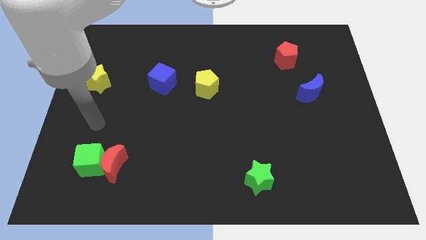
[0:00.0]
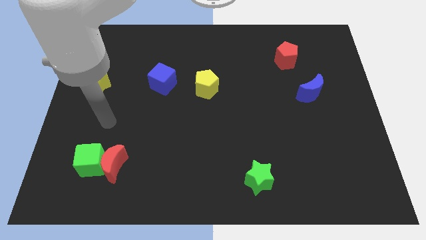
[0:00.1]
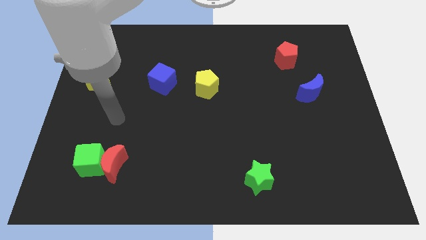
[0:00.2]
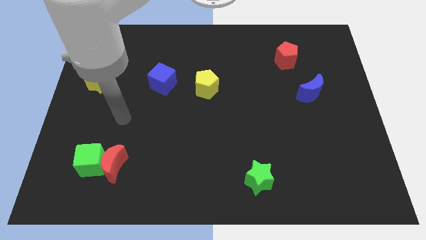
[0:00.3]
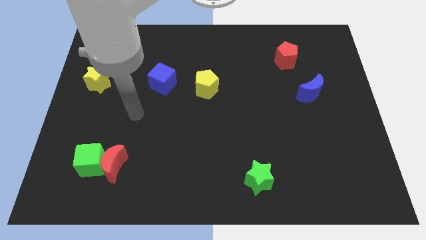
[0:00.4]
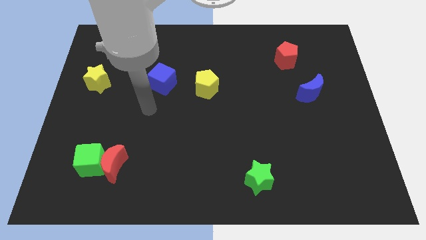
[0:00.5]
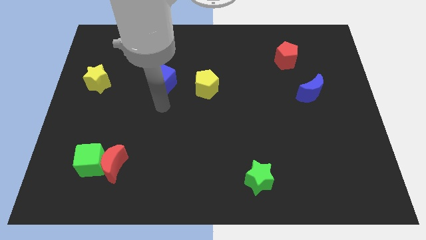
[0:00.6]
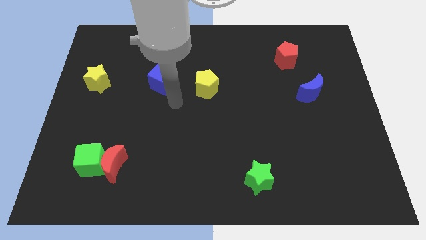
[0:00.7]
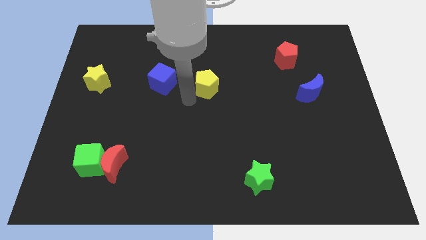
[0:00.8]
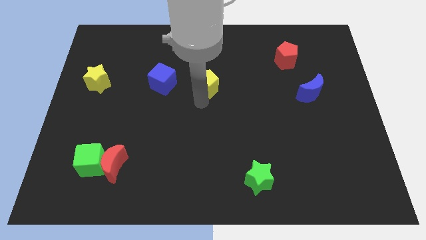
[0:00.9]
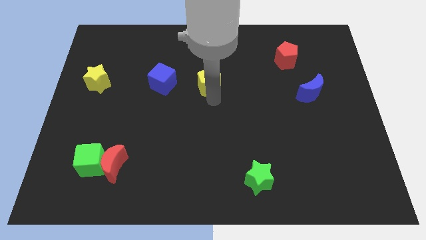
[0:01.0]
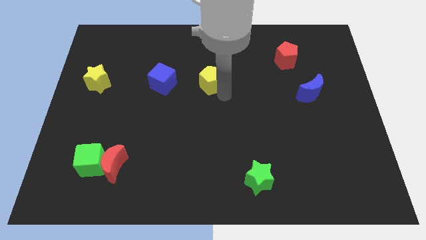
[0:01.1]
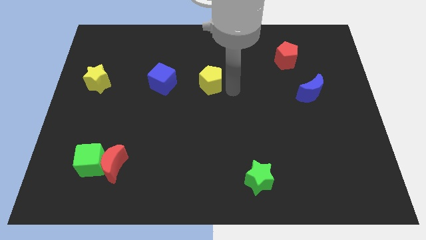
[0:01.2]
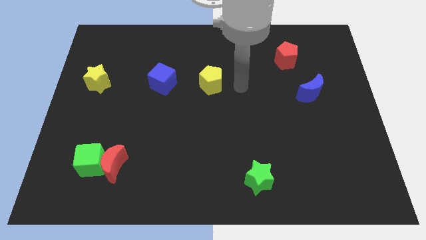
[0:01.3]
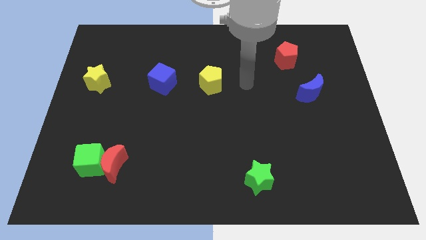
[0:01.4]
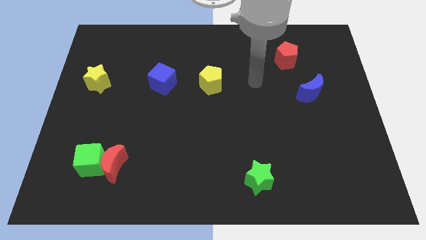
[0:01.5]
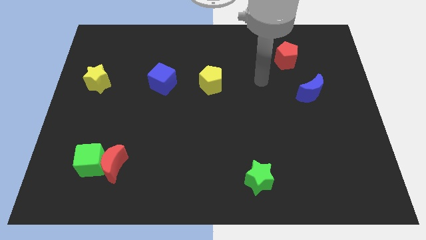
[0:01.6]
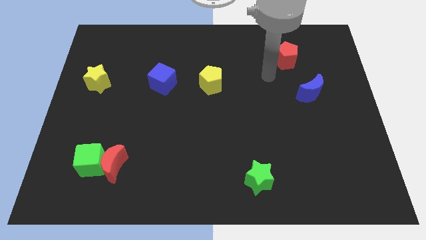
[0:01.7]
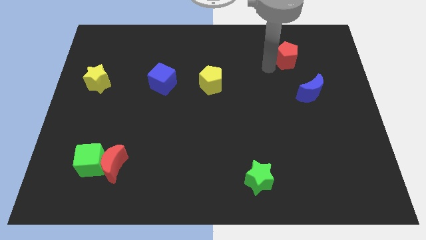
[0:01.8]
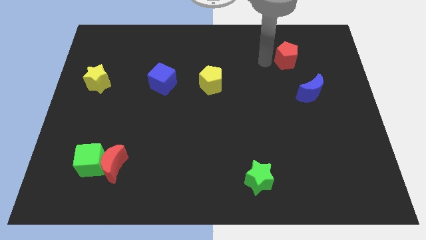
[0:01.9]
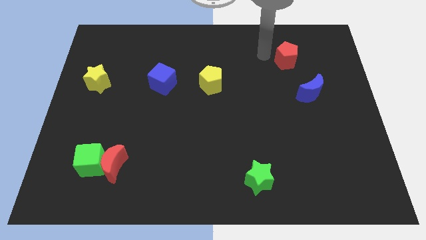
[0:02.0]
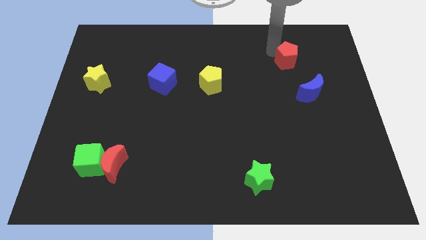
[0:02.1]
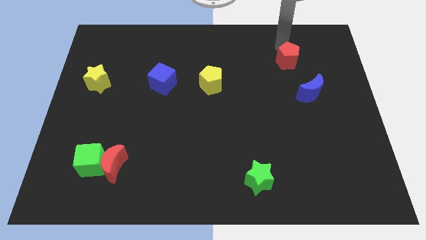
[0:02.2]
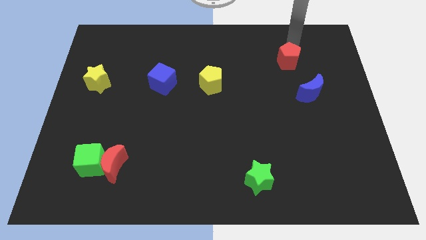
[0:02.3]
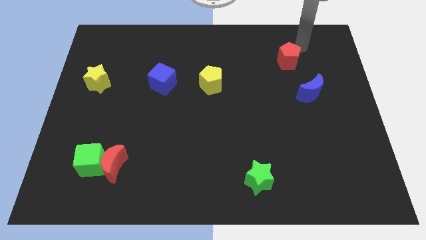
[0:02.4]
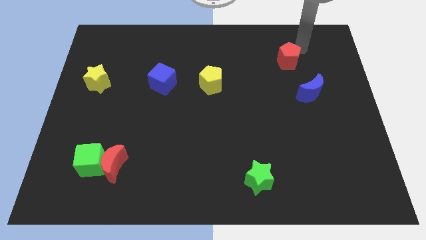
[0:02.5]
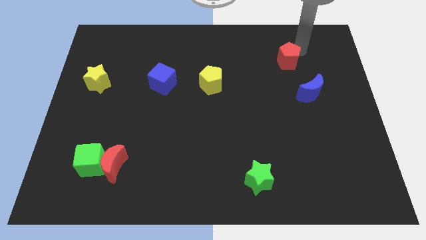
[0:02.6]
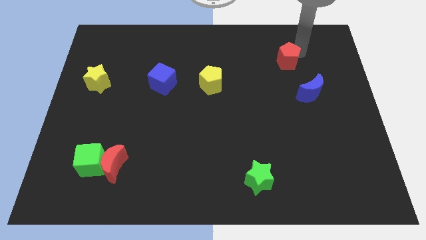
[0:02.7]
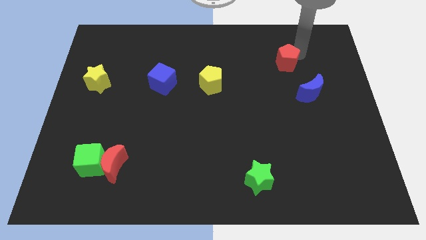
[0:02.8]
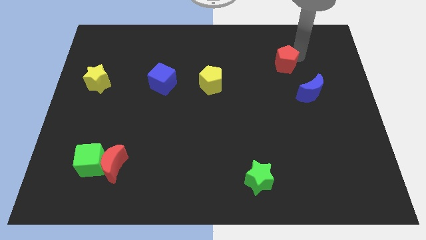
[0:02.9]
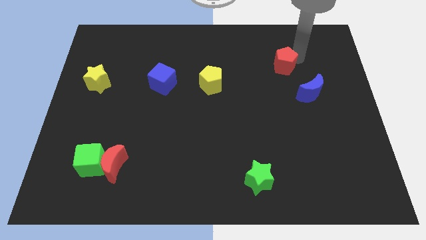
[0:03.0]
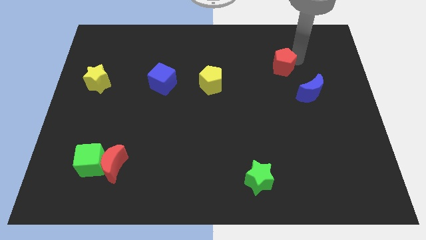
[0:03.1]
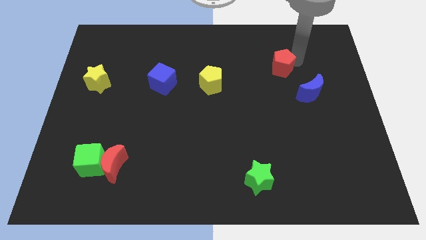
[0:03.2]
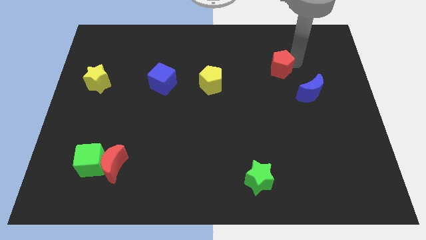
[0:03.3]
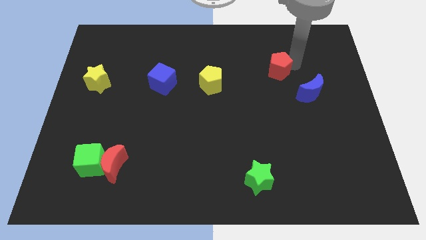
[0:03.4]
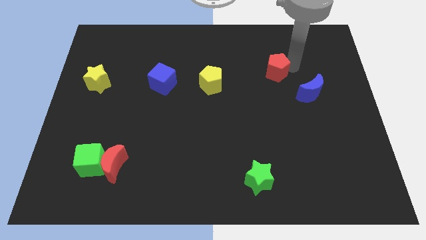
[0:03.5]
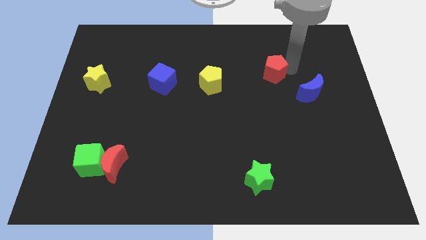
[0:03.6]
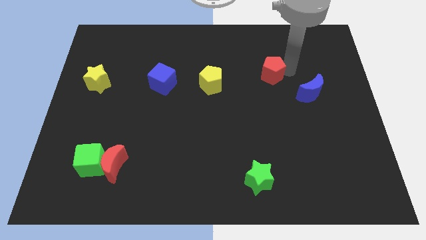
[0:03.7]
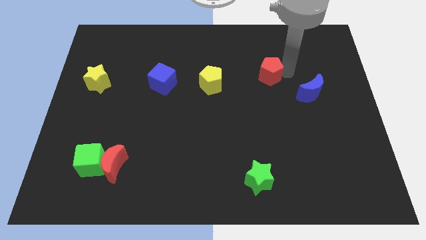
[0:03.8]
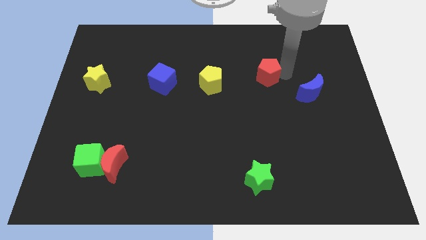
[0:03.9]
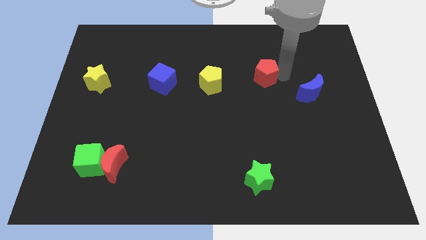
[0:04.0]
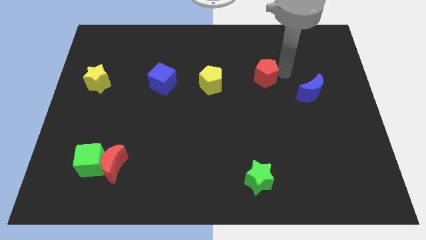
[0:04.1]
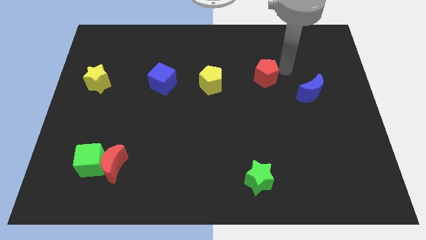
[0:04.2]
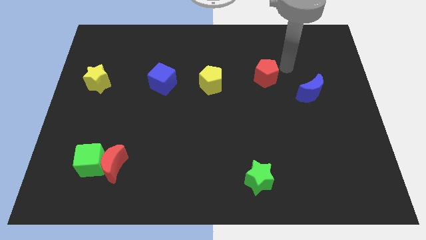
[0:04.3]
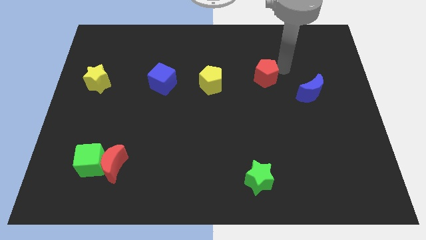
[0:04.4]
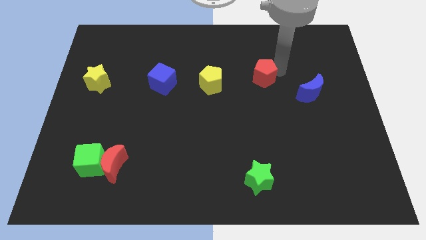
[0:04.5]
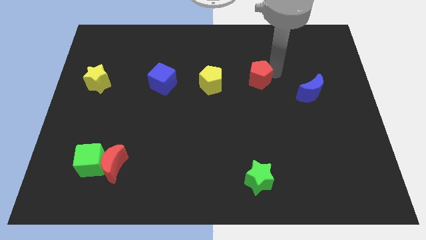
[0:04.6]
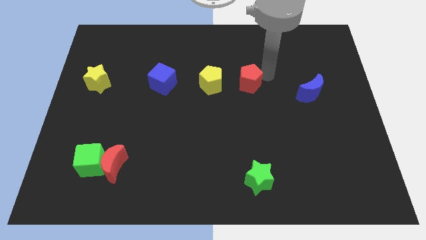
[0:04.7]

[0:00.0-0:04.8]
move the red pentagon to the center of the board

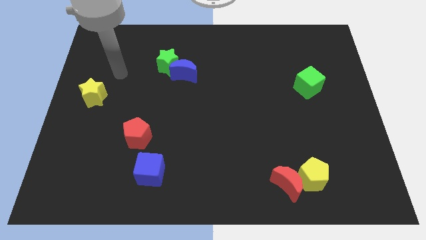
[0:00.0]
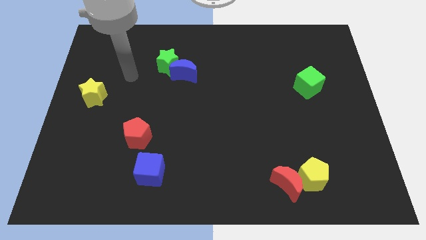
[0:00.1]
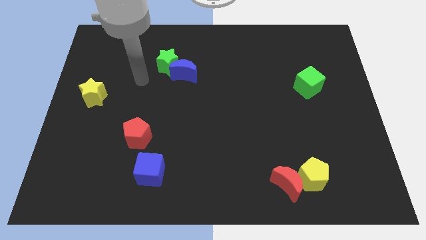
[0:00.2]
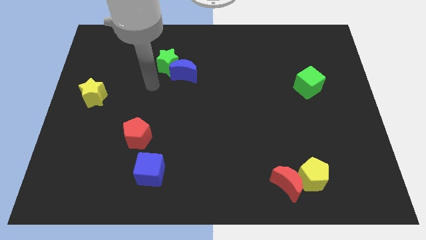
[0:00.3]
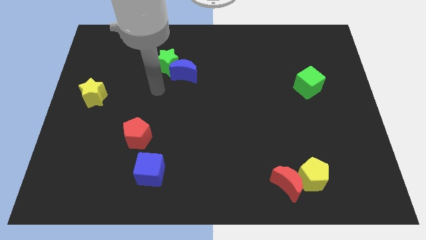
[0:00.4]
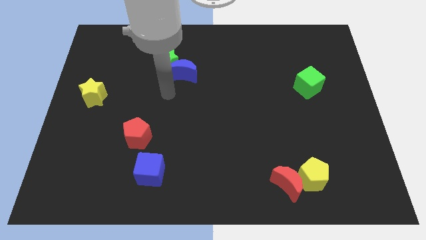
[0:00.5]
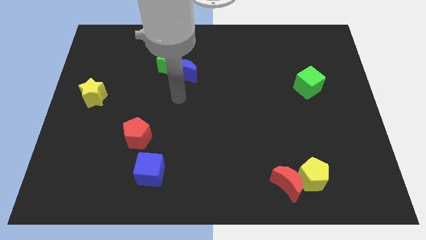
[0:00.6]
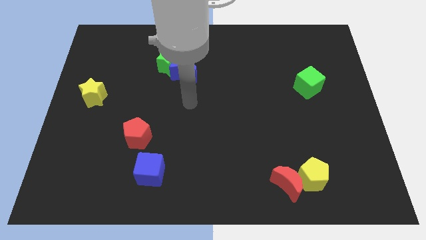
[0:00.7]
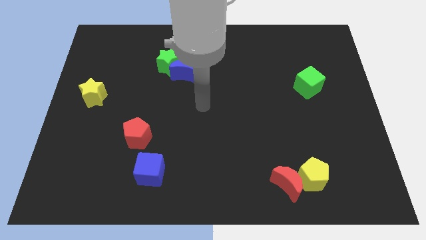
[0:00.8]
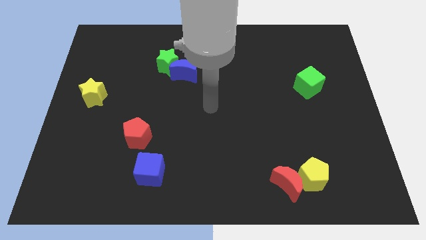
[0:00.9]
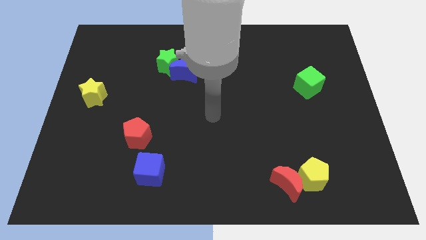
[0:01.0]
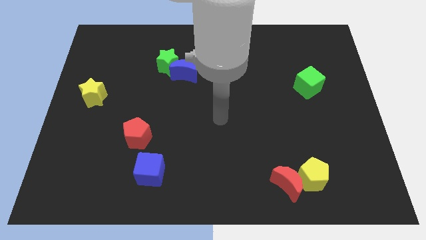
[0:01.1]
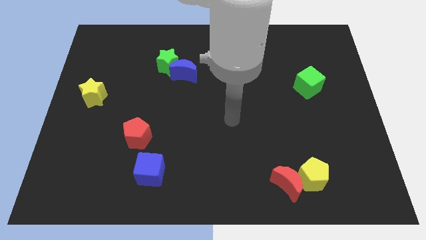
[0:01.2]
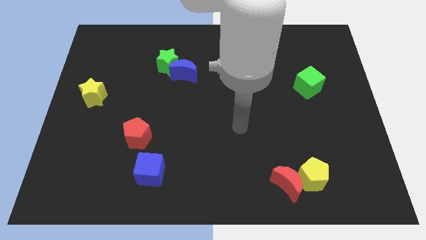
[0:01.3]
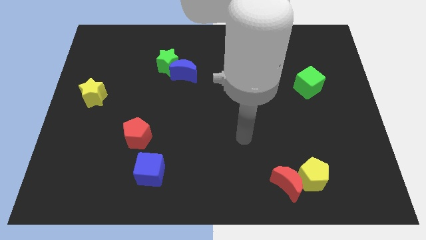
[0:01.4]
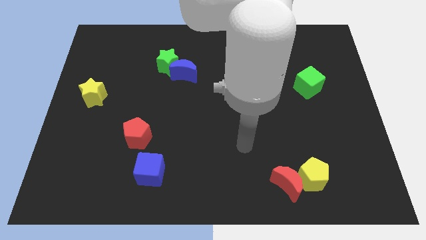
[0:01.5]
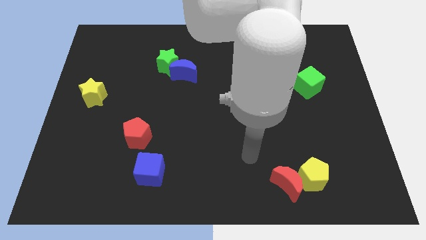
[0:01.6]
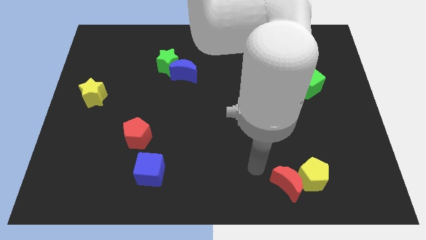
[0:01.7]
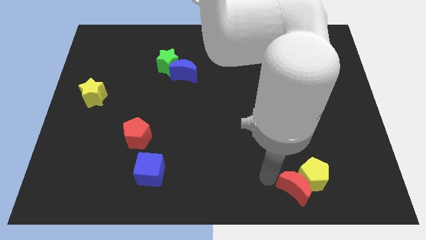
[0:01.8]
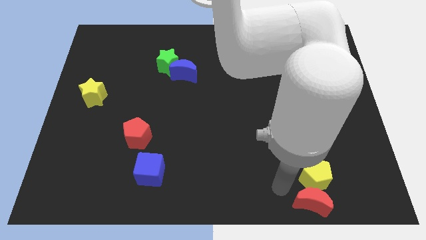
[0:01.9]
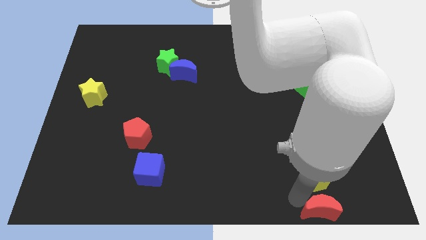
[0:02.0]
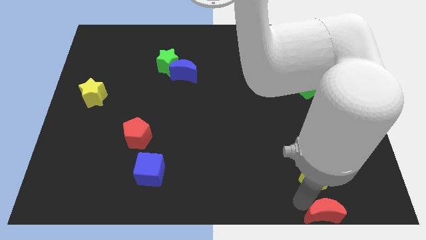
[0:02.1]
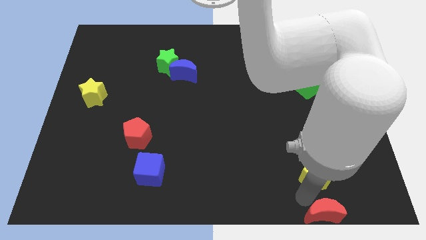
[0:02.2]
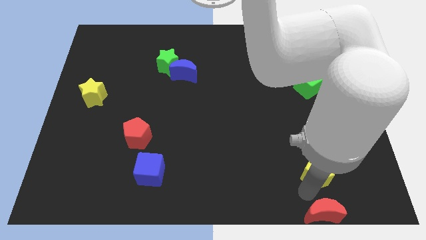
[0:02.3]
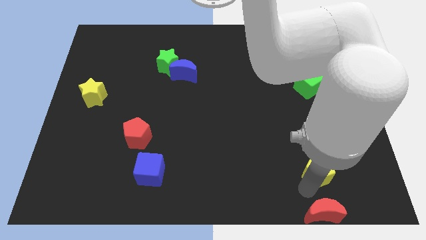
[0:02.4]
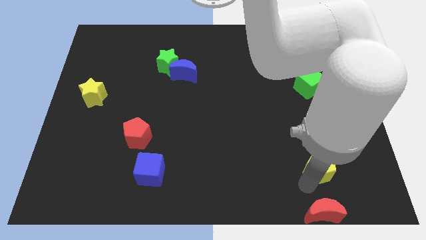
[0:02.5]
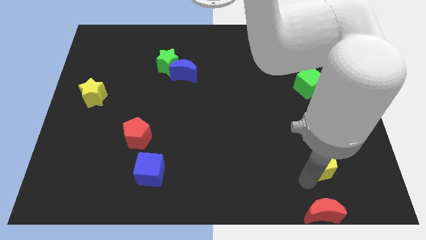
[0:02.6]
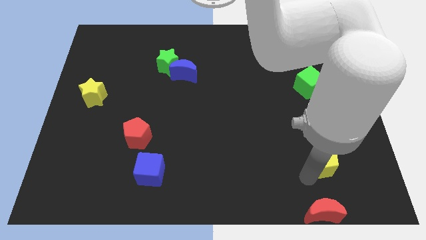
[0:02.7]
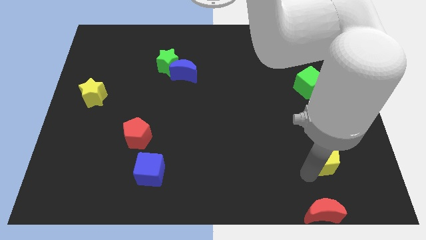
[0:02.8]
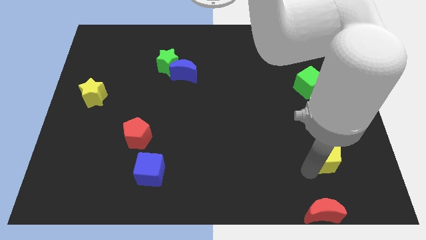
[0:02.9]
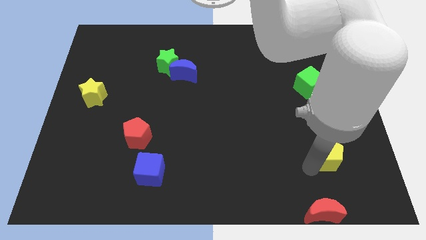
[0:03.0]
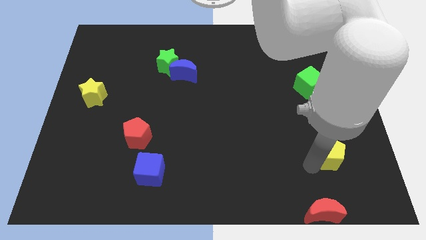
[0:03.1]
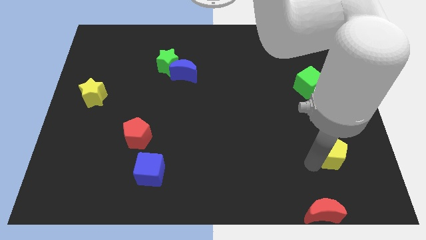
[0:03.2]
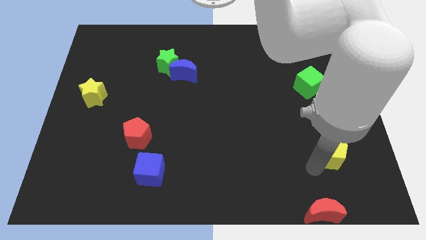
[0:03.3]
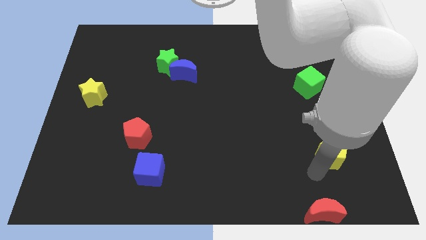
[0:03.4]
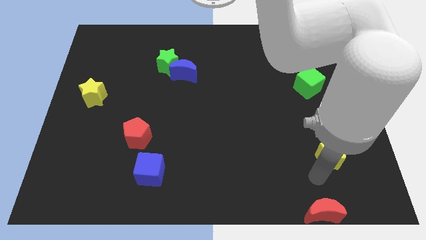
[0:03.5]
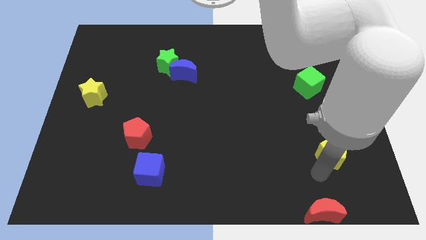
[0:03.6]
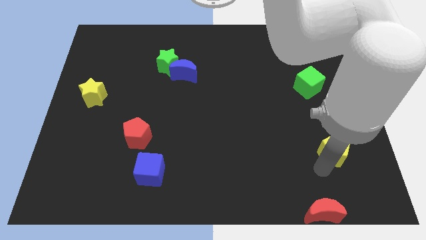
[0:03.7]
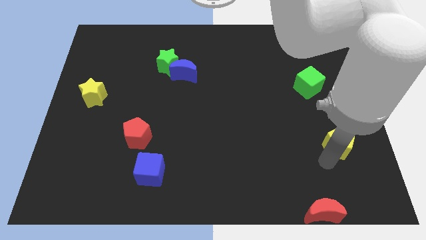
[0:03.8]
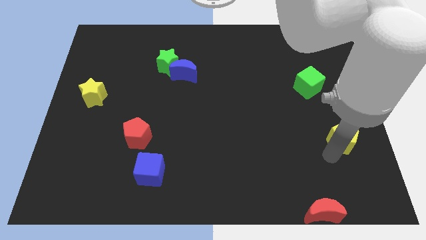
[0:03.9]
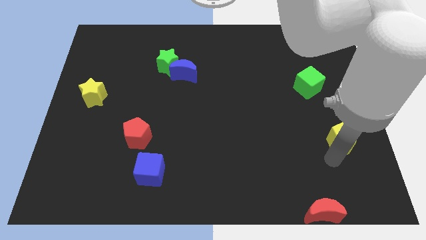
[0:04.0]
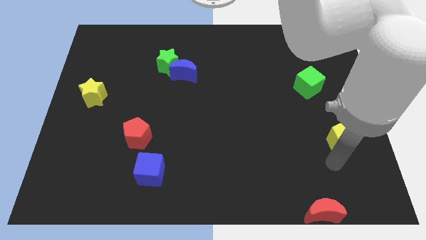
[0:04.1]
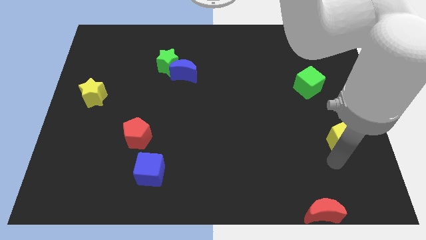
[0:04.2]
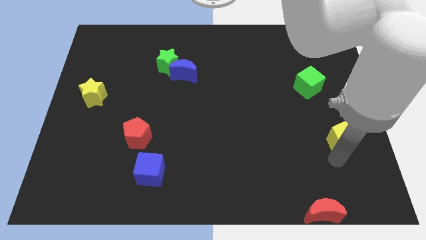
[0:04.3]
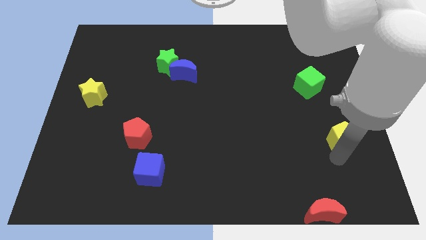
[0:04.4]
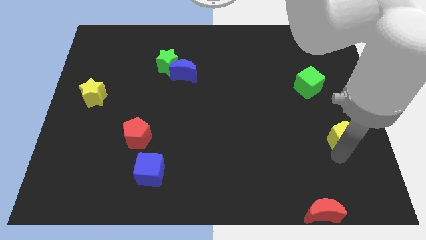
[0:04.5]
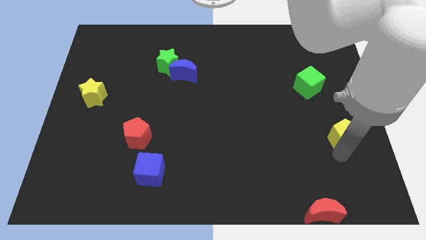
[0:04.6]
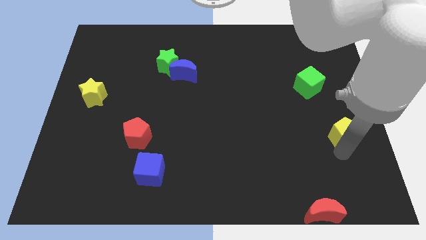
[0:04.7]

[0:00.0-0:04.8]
slide the yellow pentagon to the right side of the board
